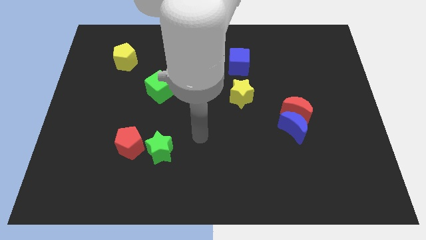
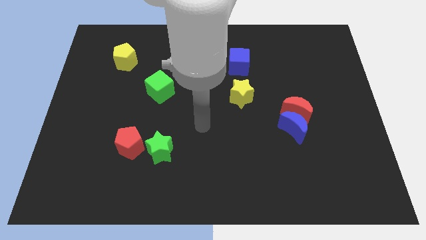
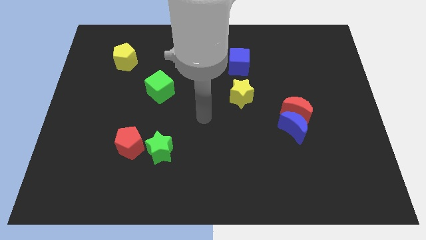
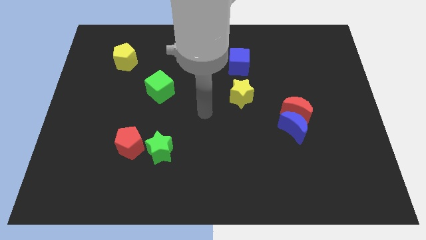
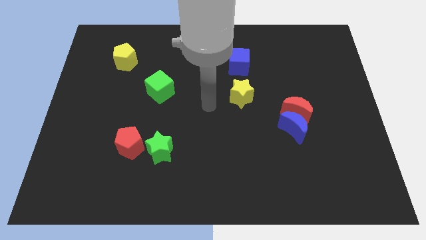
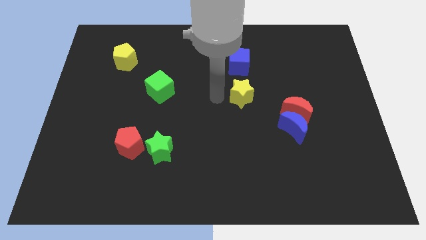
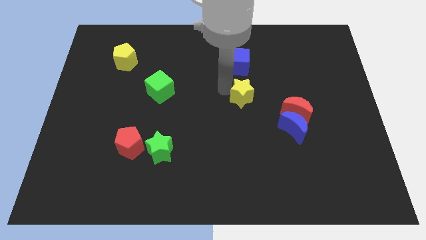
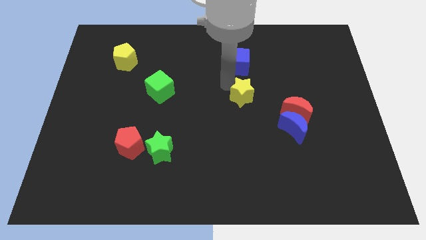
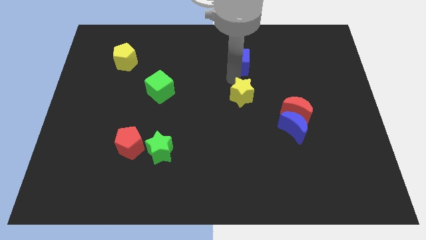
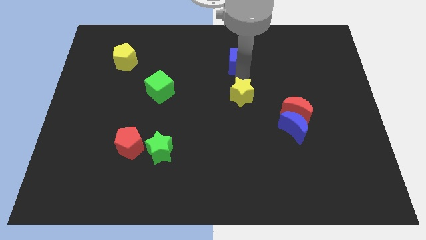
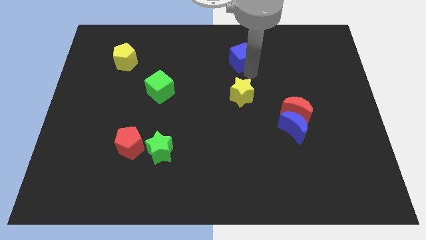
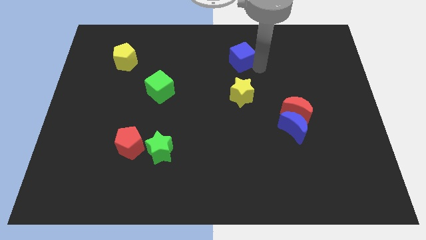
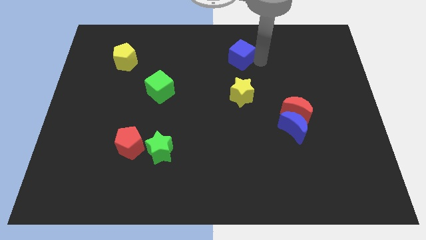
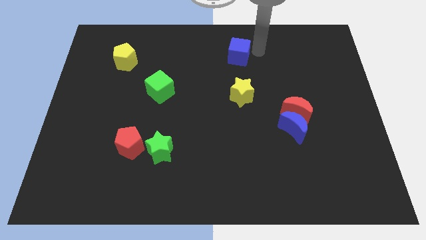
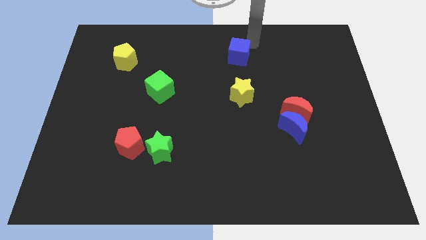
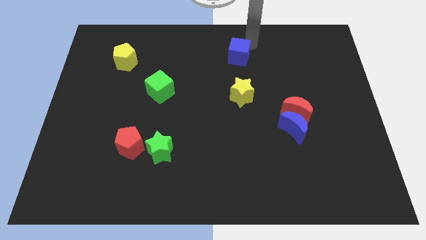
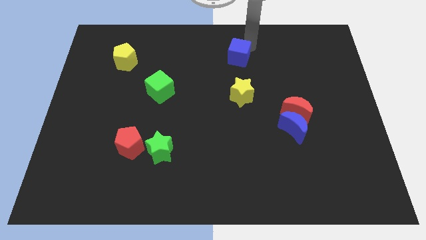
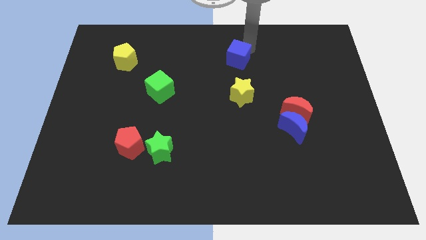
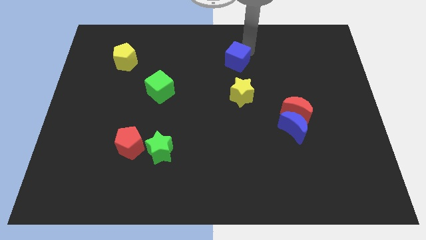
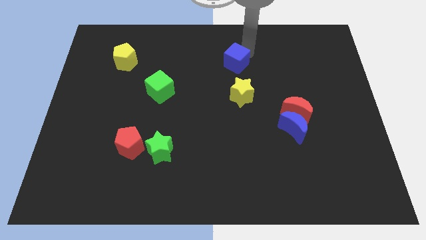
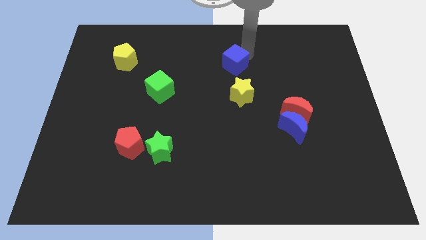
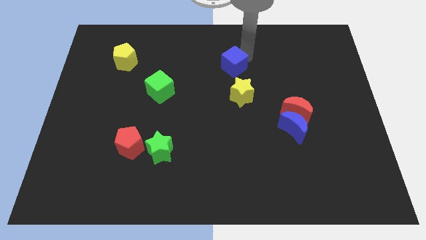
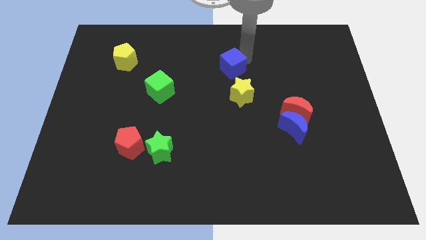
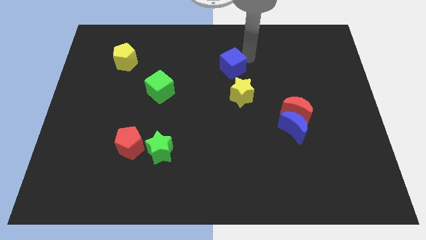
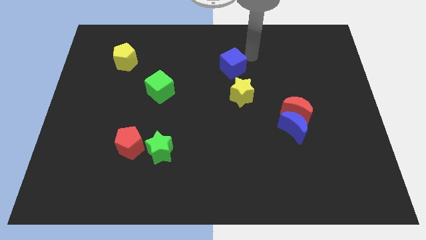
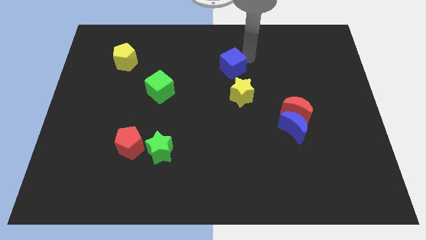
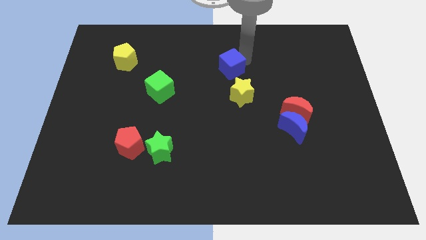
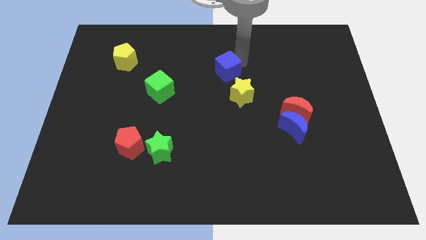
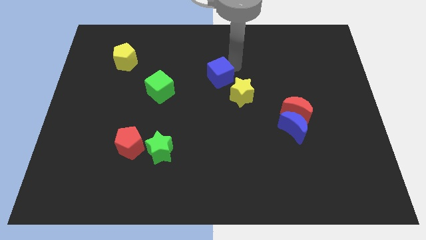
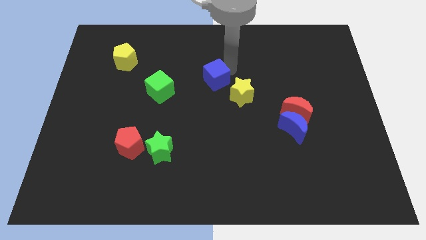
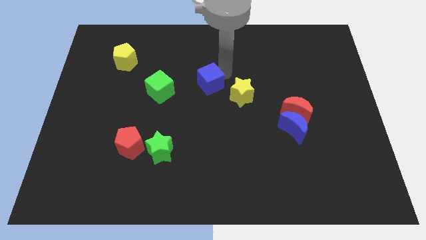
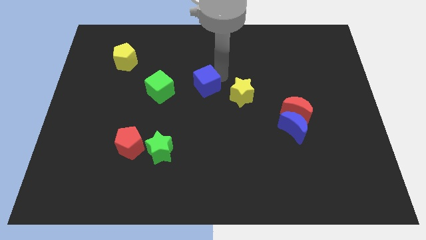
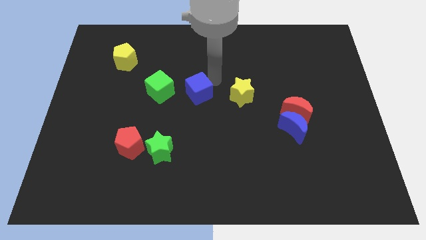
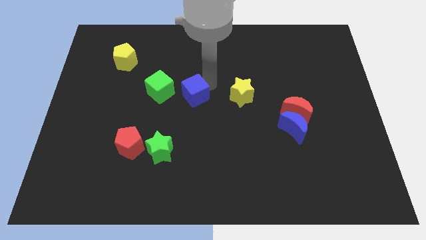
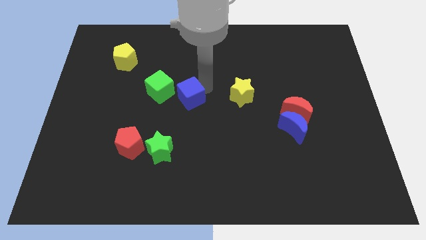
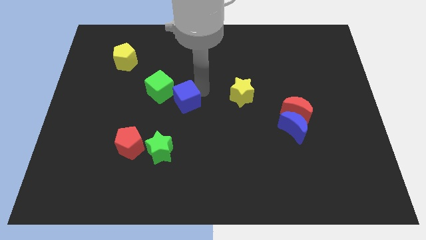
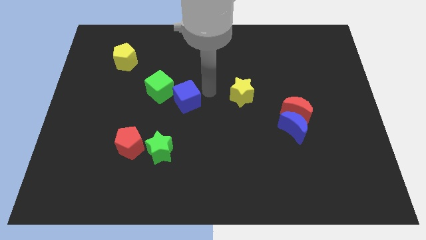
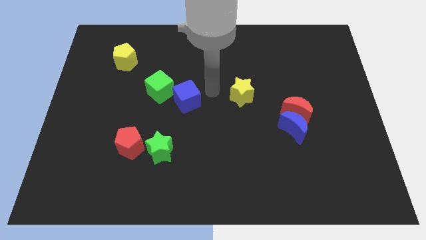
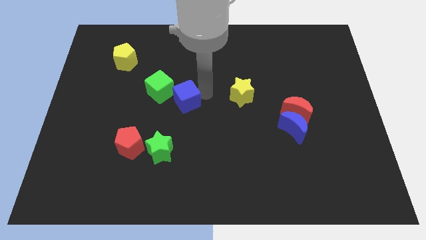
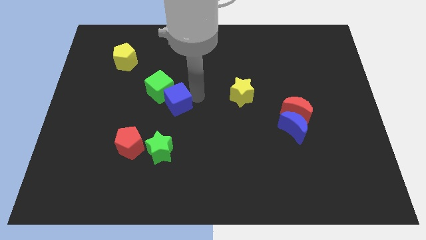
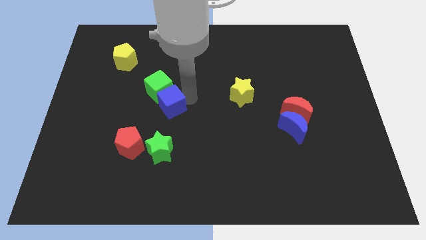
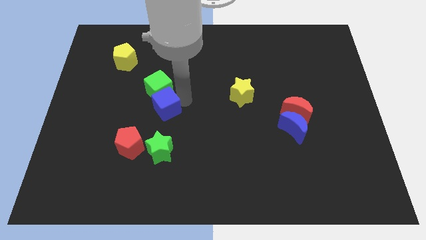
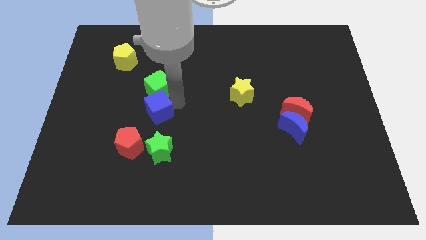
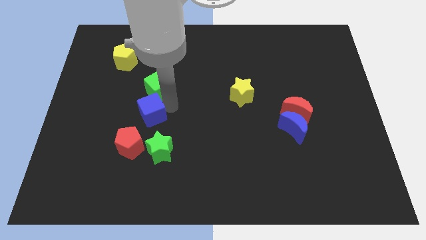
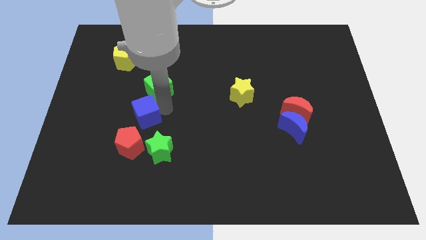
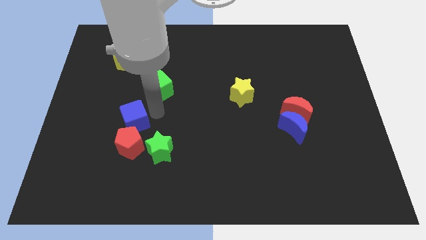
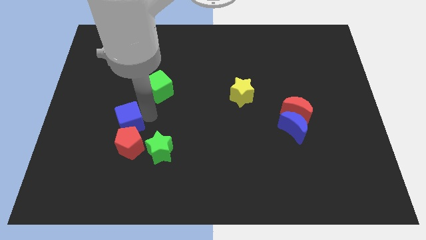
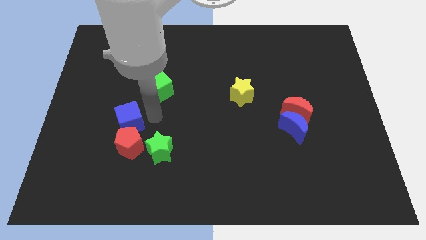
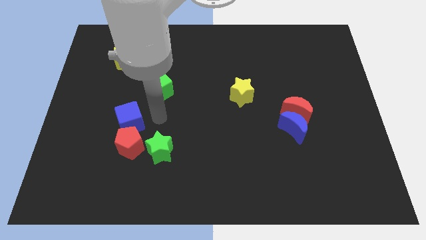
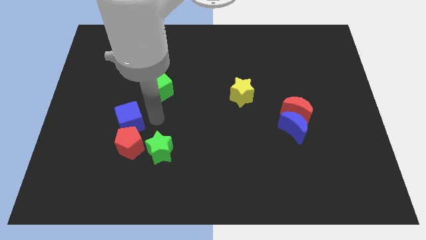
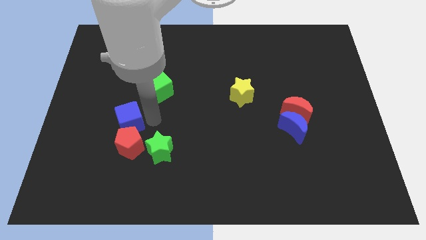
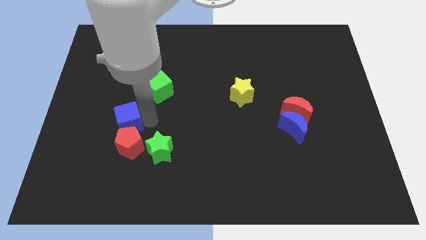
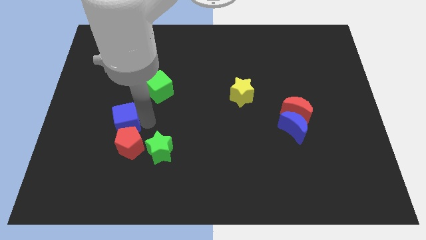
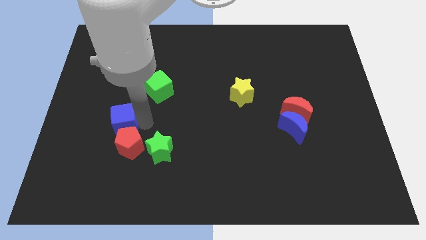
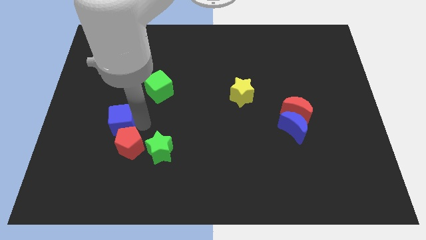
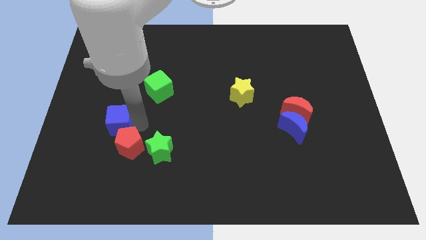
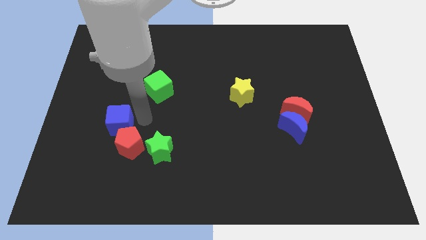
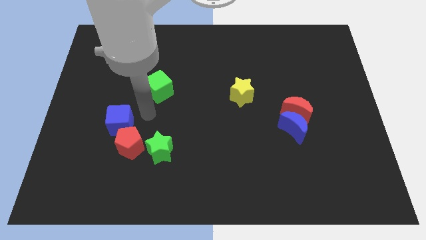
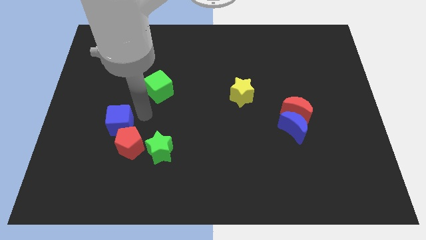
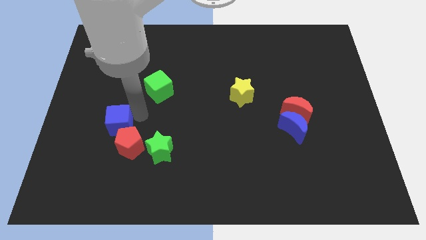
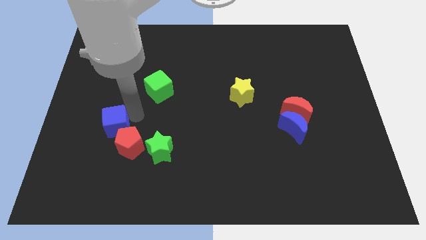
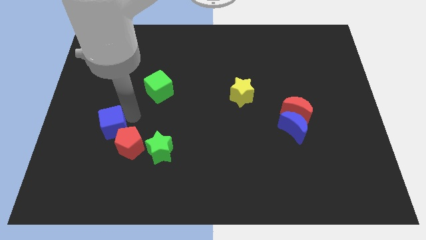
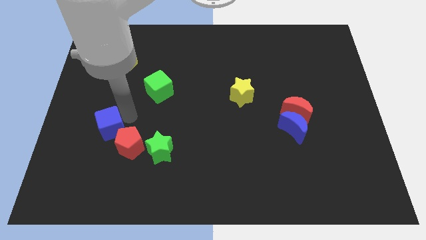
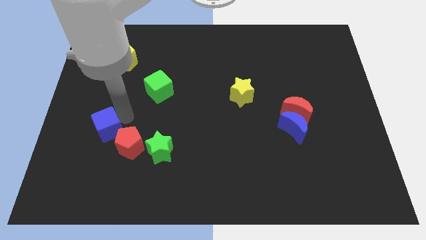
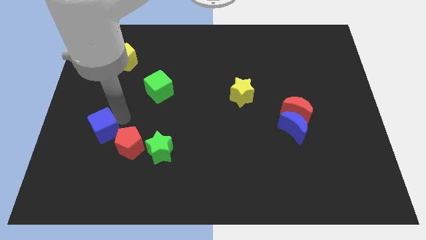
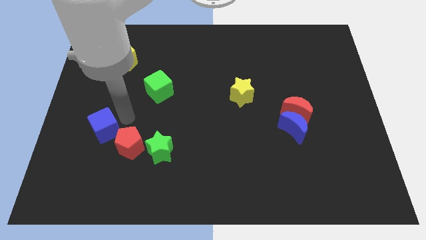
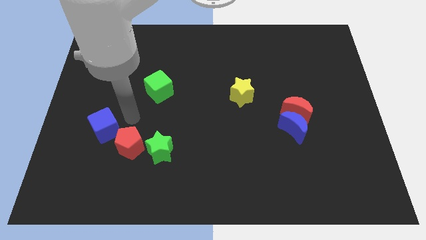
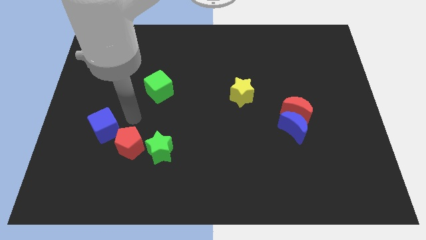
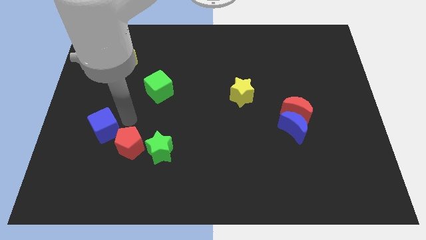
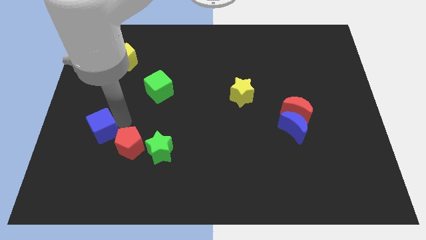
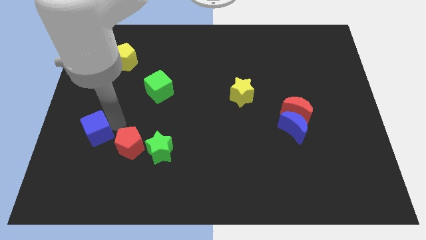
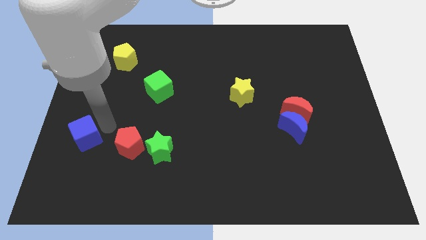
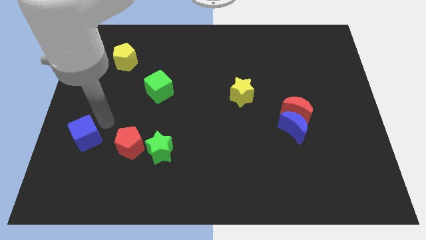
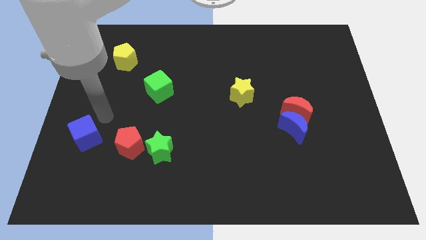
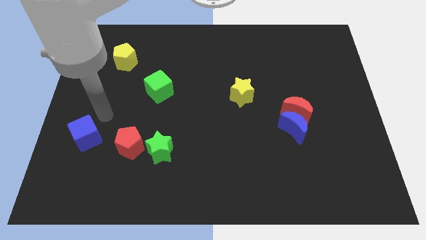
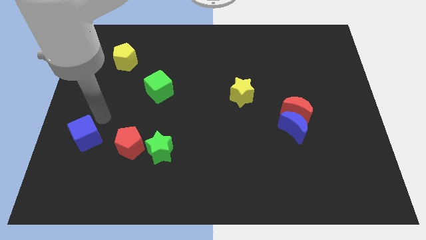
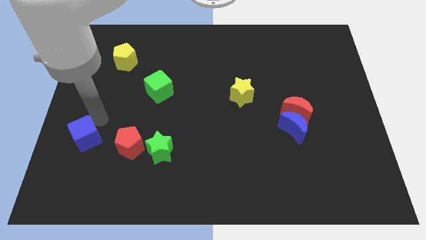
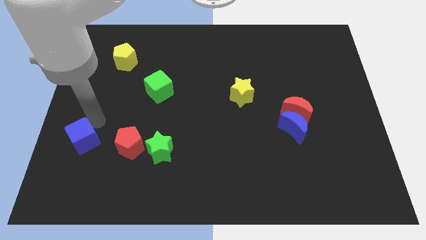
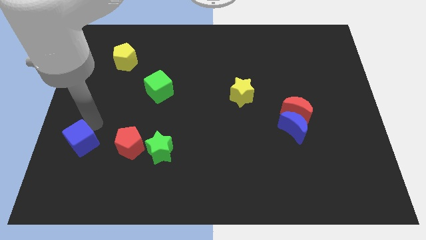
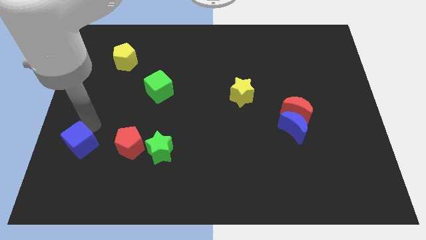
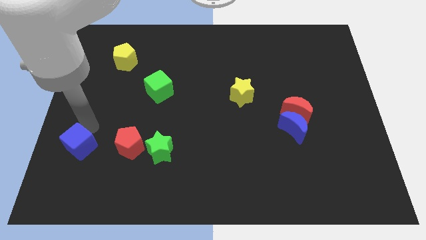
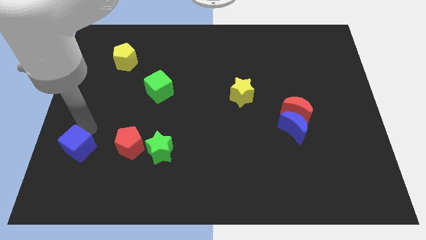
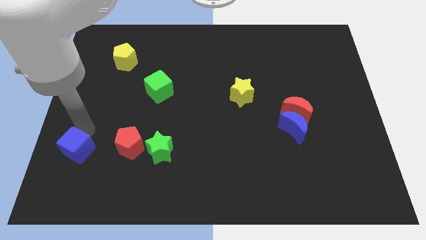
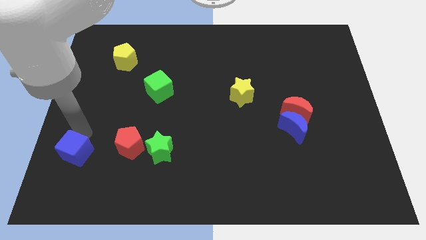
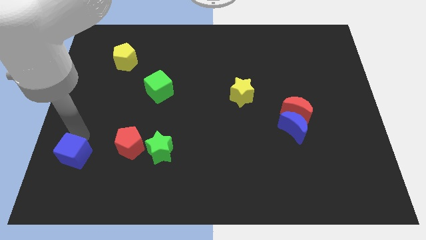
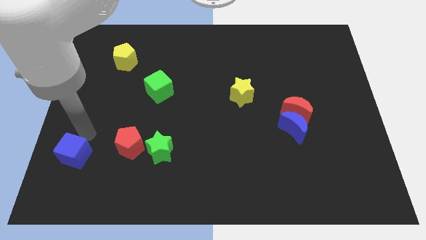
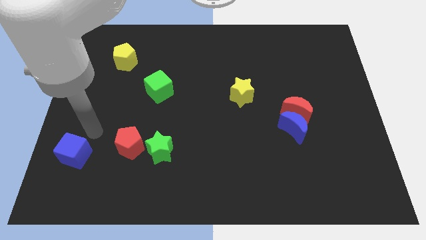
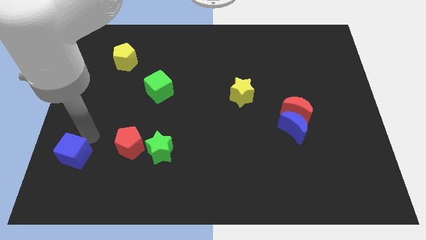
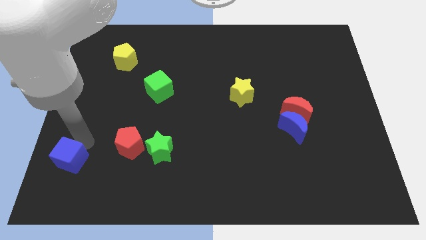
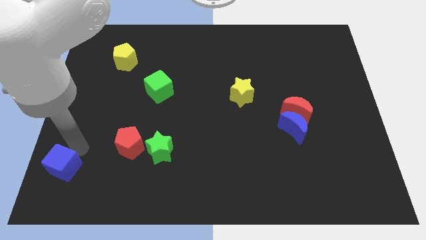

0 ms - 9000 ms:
slide the blue cube to the lower left corner
